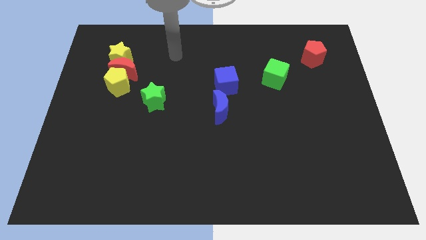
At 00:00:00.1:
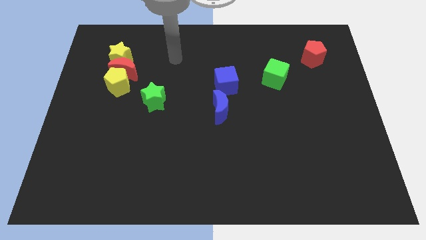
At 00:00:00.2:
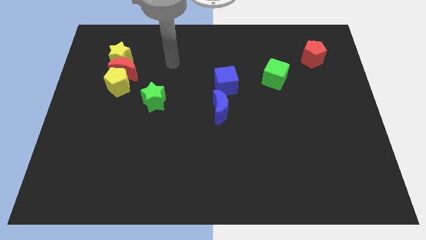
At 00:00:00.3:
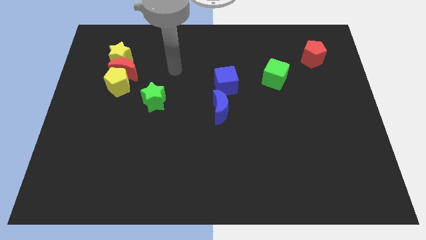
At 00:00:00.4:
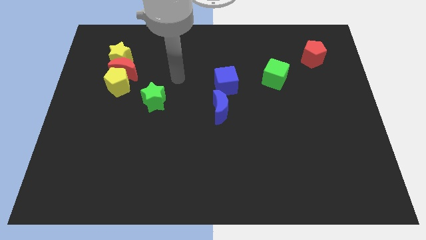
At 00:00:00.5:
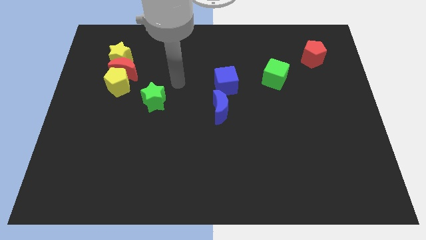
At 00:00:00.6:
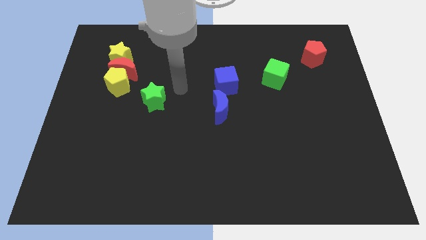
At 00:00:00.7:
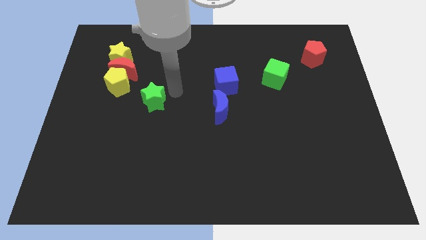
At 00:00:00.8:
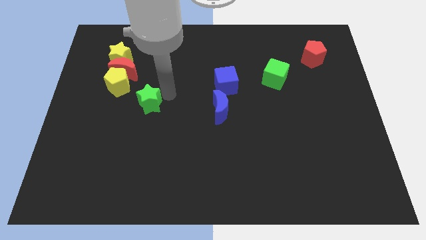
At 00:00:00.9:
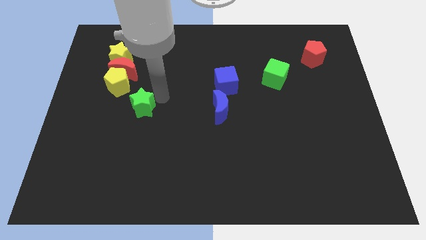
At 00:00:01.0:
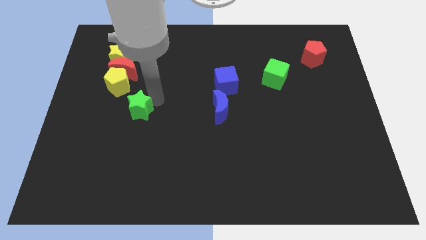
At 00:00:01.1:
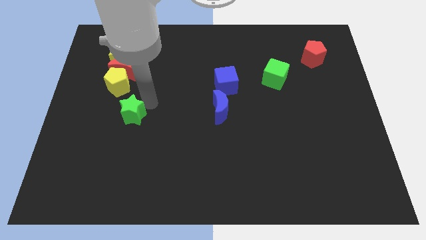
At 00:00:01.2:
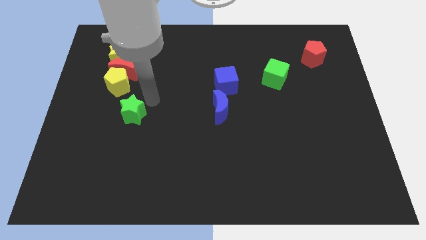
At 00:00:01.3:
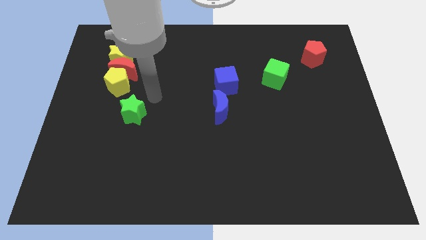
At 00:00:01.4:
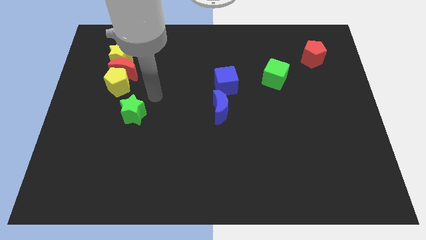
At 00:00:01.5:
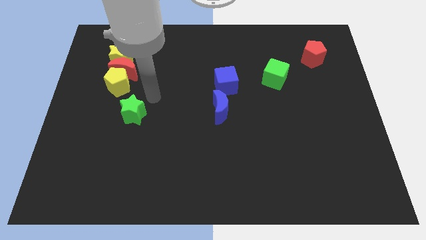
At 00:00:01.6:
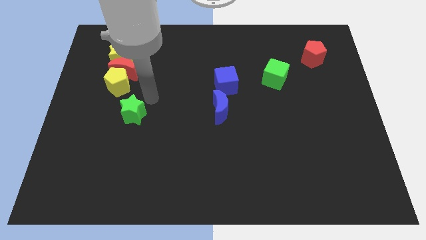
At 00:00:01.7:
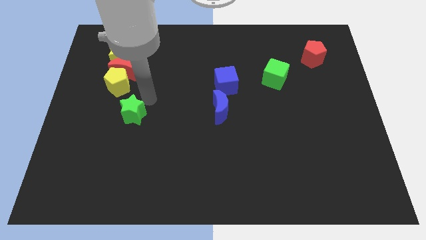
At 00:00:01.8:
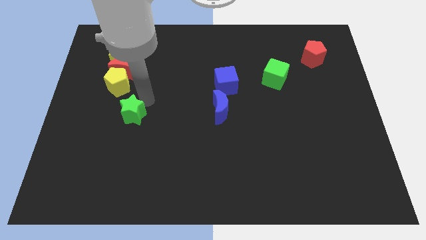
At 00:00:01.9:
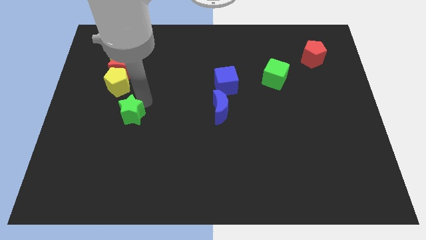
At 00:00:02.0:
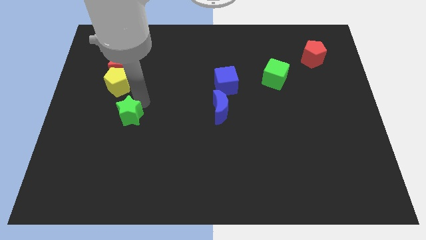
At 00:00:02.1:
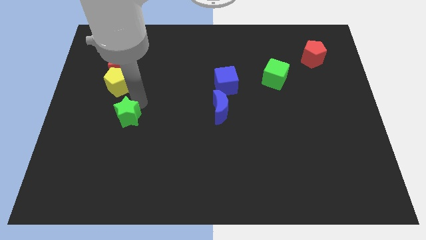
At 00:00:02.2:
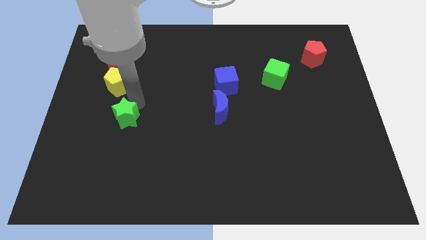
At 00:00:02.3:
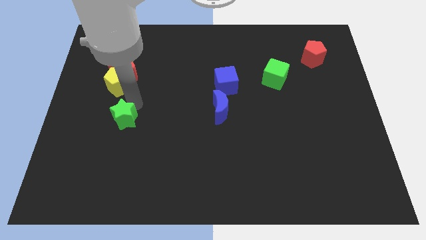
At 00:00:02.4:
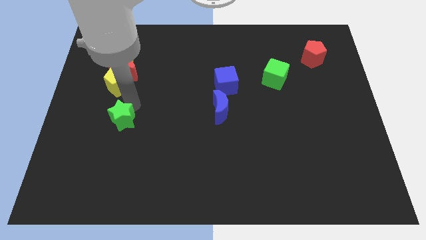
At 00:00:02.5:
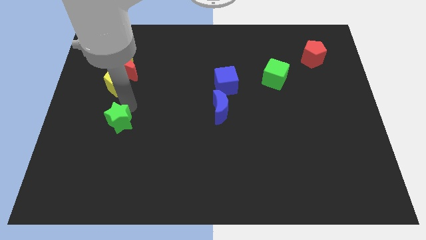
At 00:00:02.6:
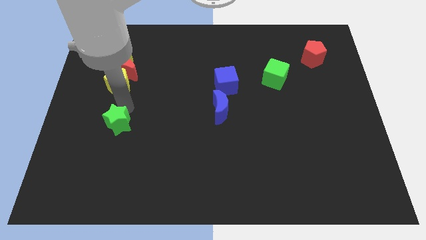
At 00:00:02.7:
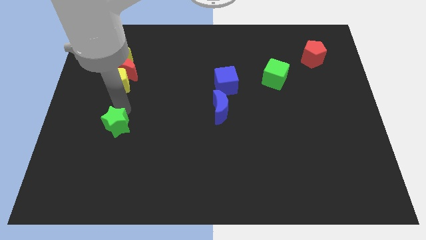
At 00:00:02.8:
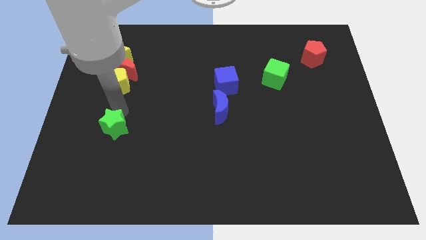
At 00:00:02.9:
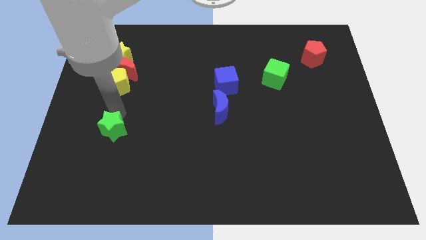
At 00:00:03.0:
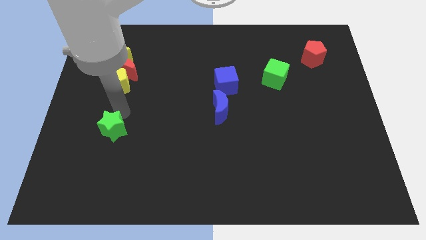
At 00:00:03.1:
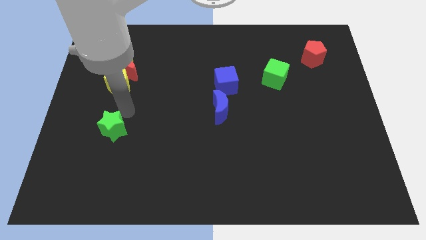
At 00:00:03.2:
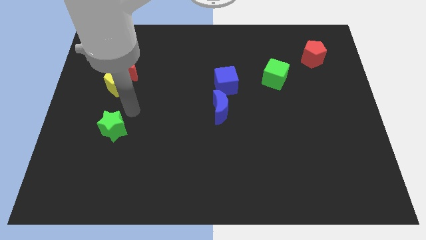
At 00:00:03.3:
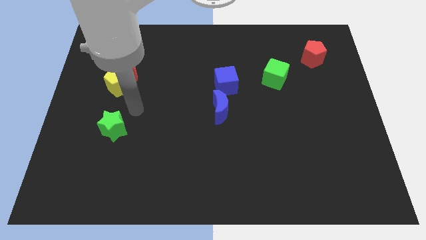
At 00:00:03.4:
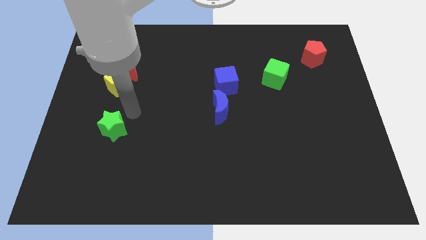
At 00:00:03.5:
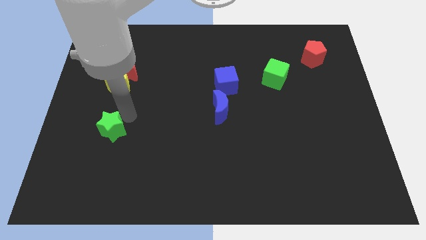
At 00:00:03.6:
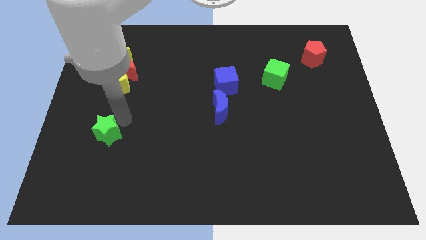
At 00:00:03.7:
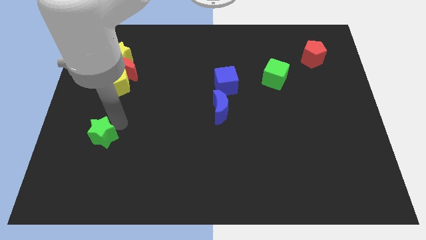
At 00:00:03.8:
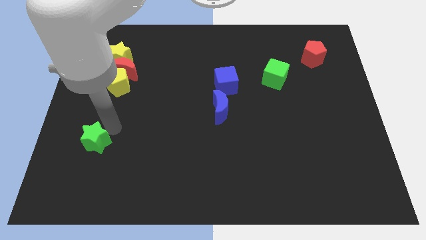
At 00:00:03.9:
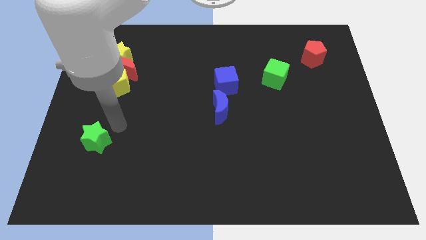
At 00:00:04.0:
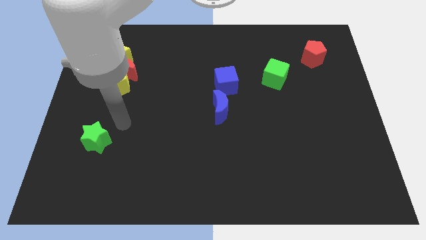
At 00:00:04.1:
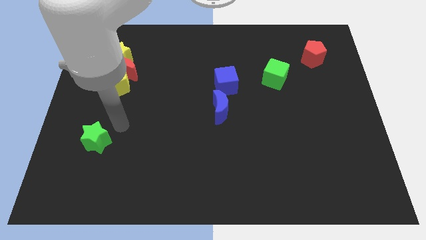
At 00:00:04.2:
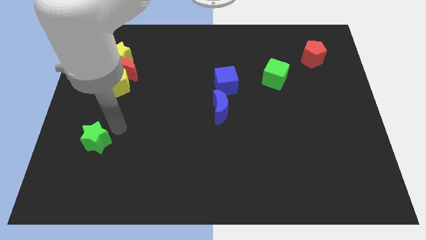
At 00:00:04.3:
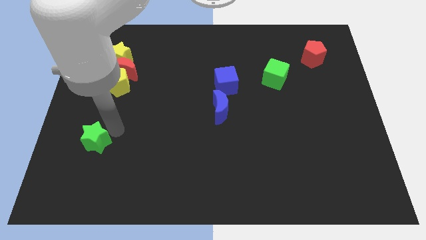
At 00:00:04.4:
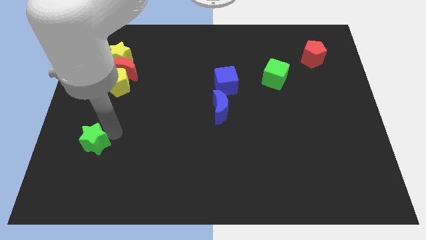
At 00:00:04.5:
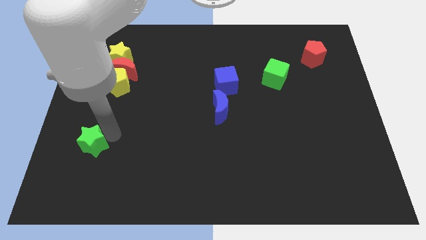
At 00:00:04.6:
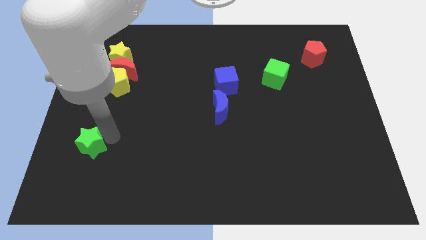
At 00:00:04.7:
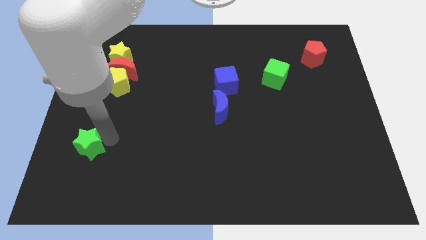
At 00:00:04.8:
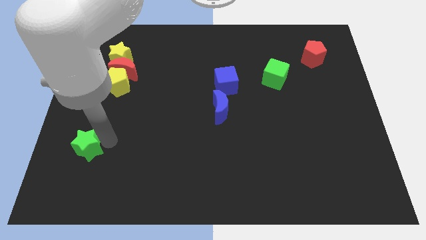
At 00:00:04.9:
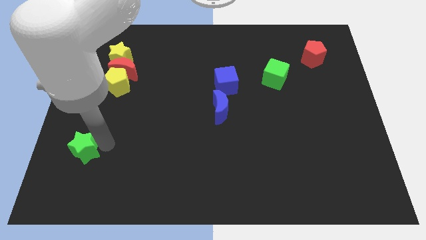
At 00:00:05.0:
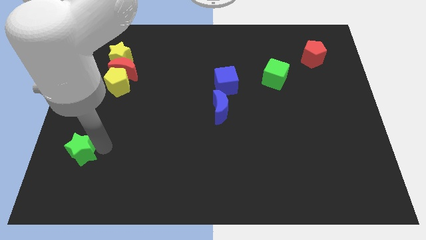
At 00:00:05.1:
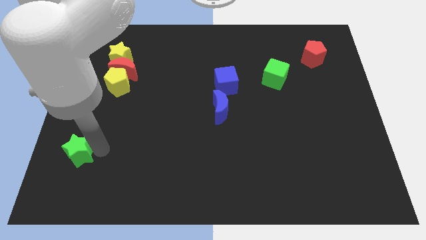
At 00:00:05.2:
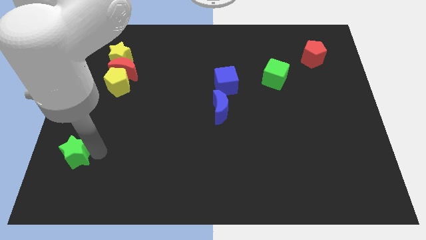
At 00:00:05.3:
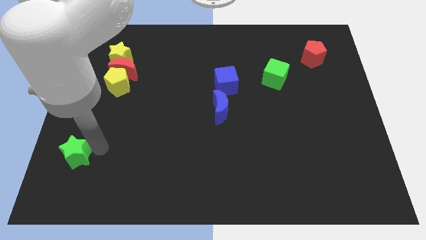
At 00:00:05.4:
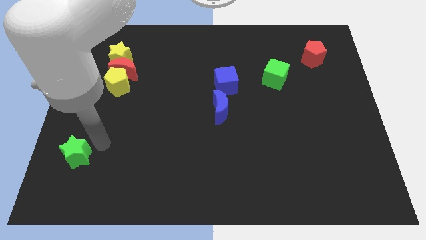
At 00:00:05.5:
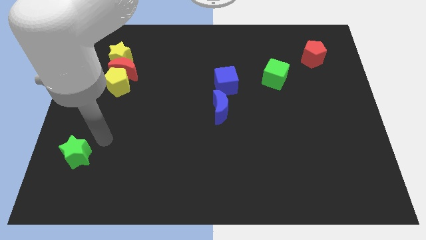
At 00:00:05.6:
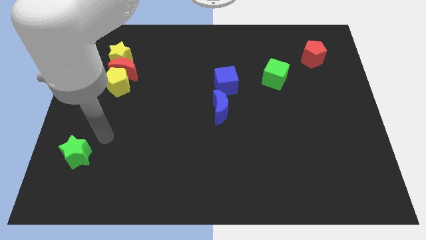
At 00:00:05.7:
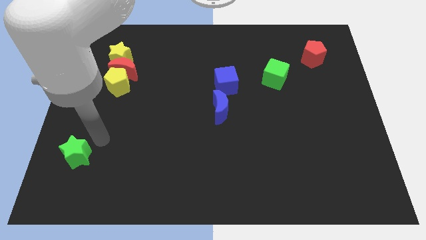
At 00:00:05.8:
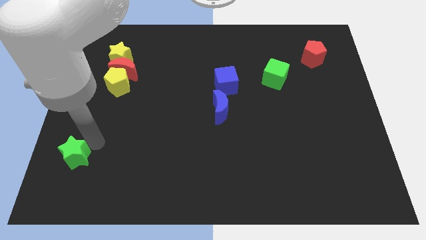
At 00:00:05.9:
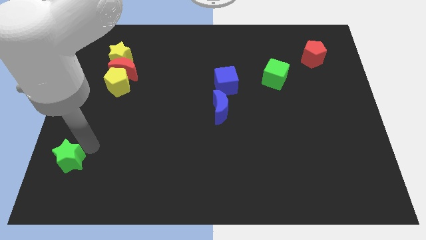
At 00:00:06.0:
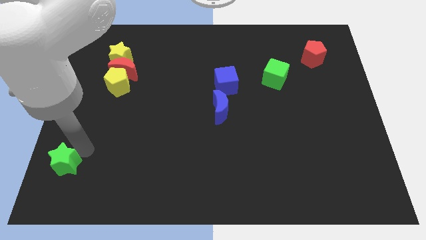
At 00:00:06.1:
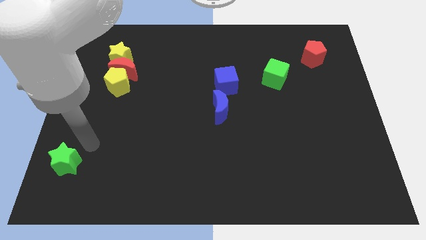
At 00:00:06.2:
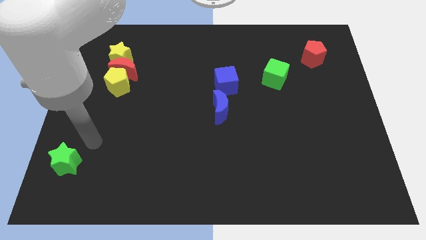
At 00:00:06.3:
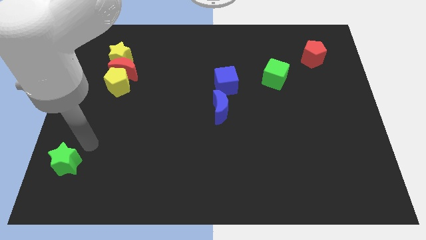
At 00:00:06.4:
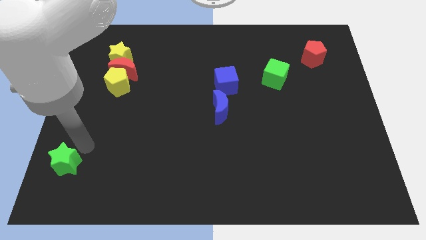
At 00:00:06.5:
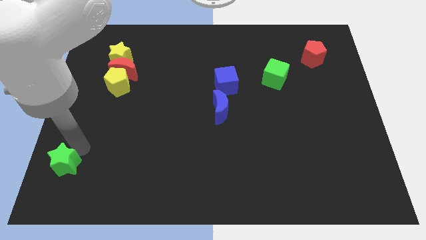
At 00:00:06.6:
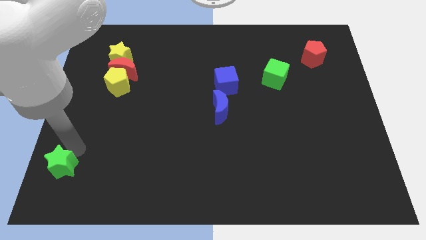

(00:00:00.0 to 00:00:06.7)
put the green star to the bottom left
